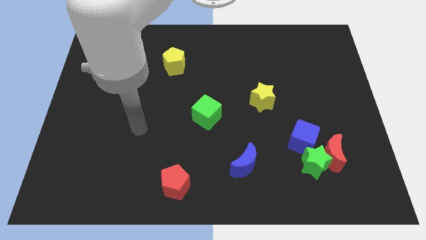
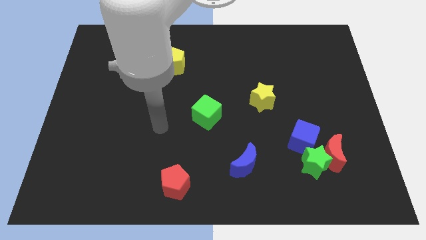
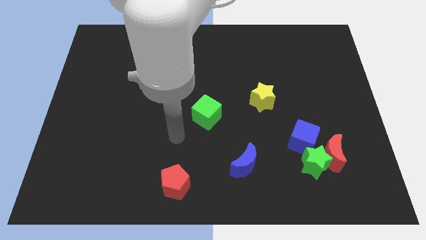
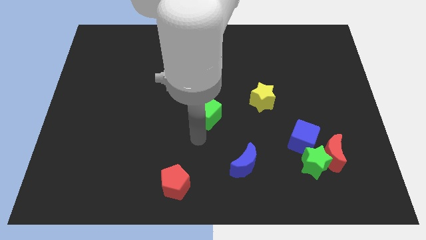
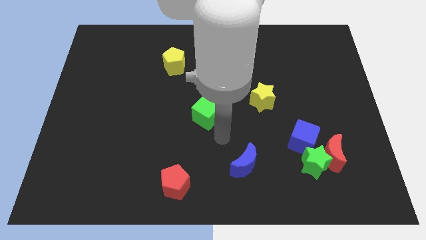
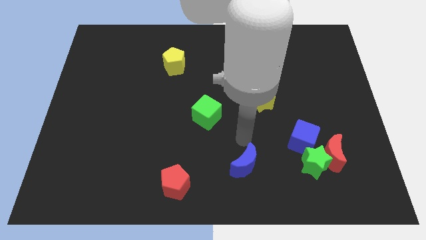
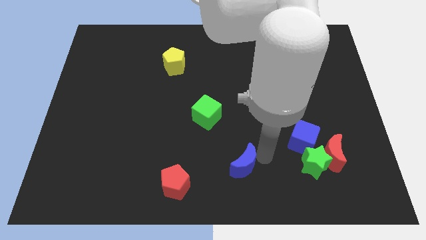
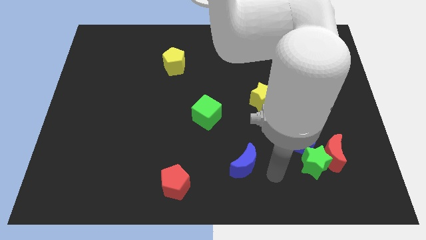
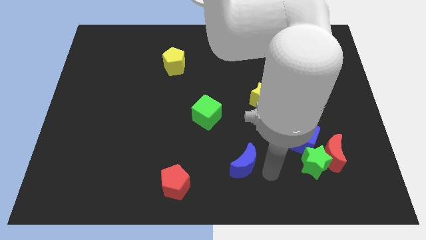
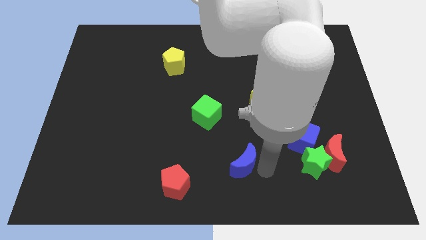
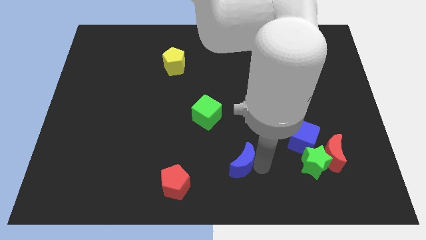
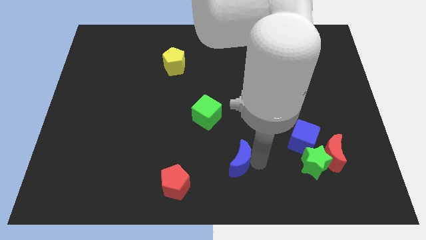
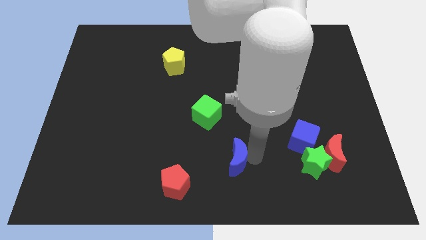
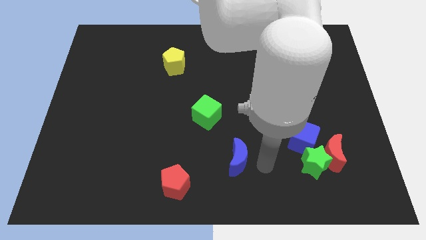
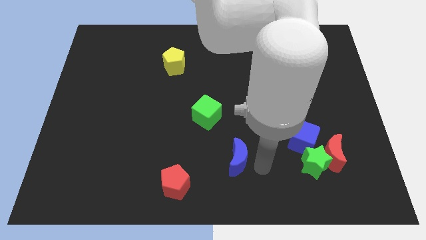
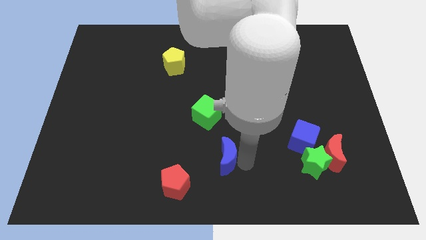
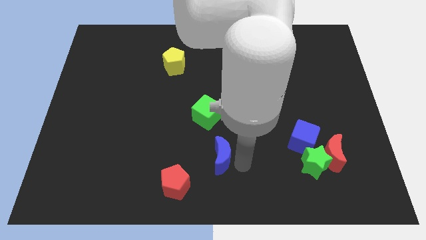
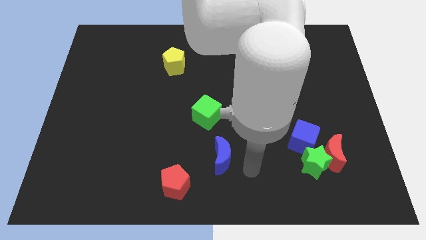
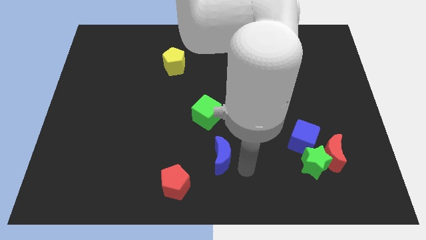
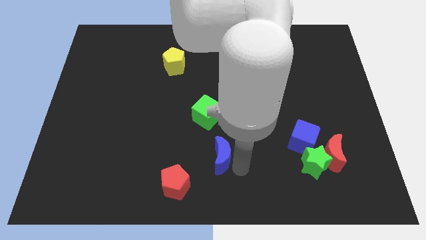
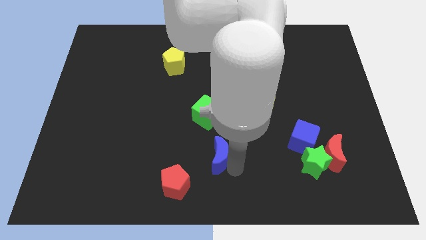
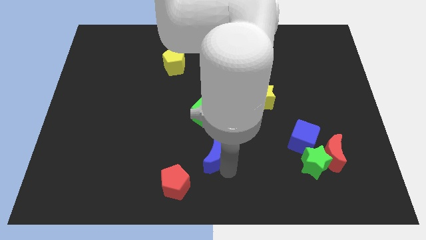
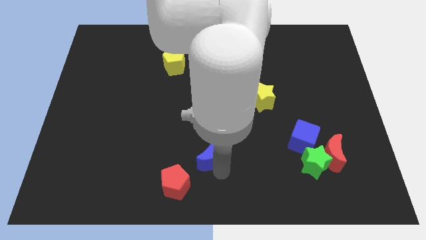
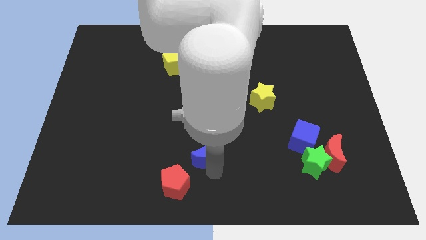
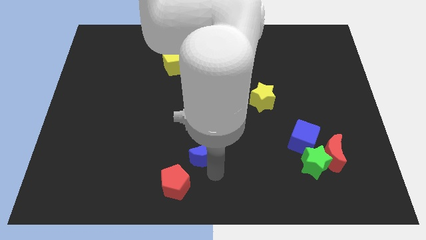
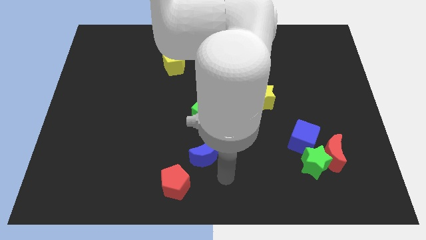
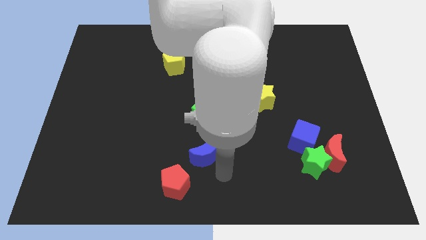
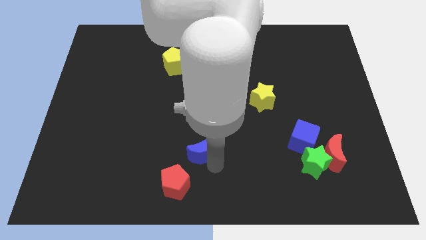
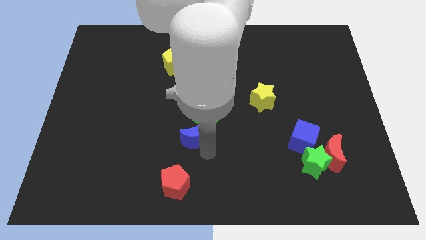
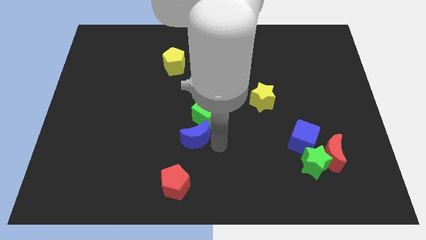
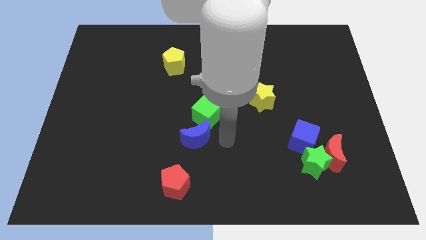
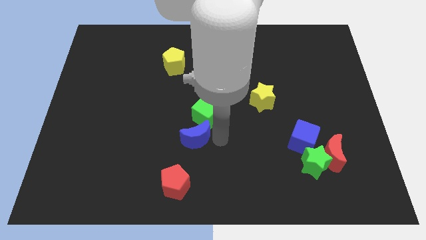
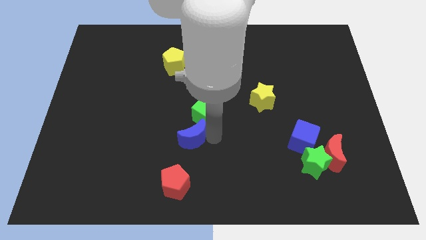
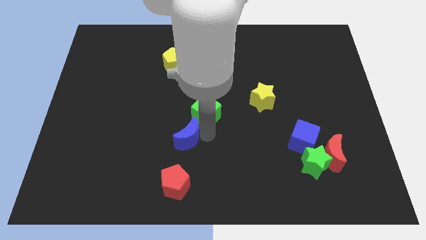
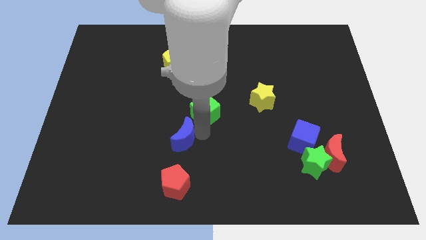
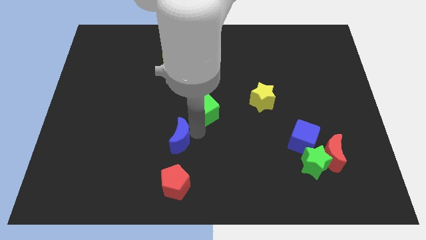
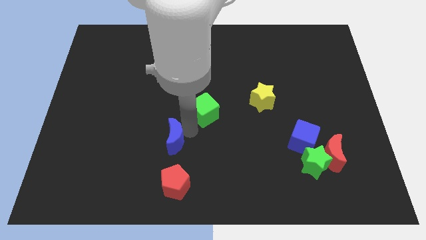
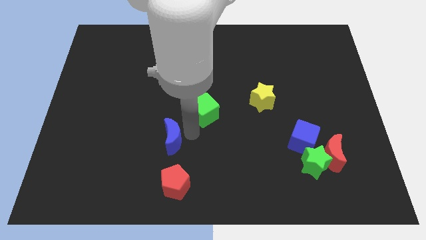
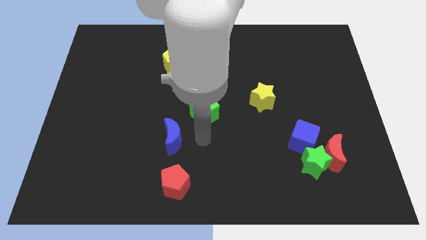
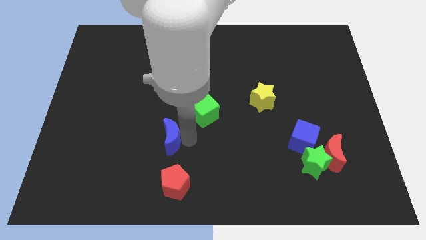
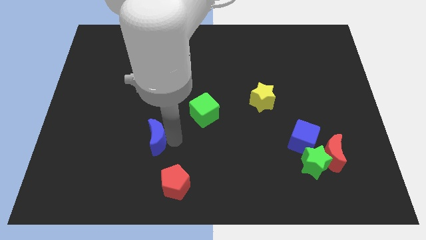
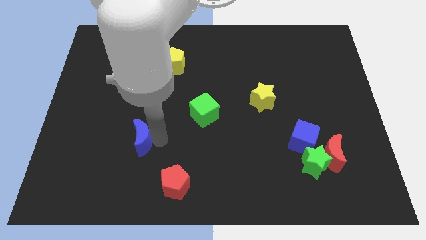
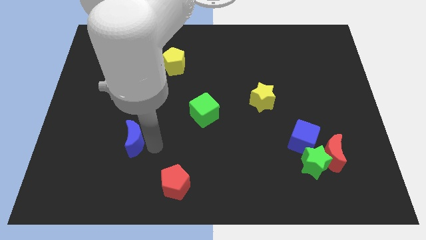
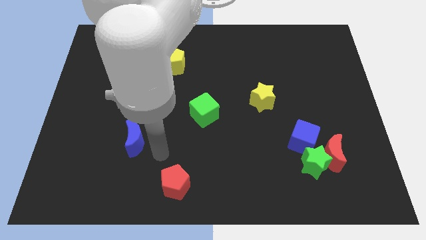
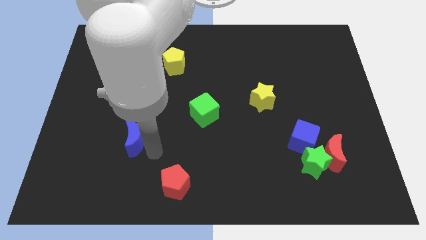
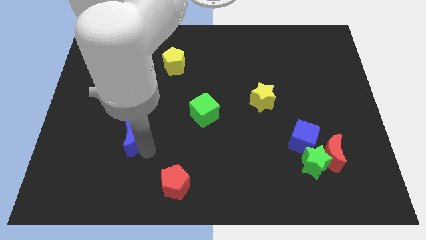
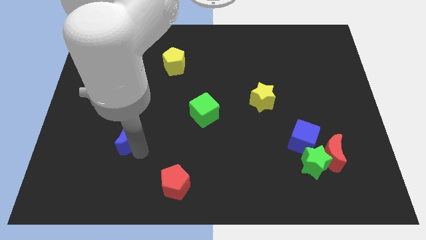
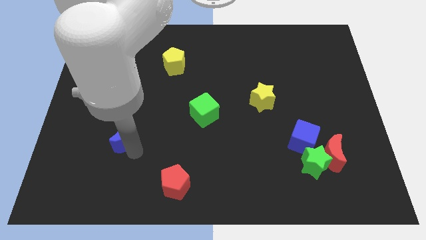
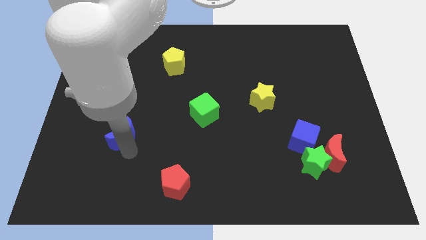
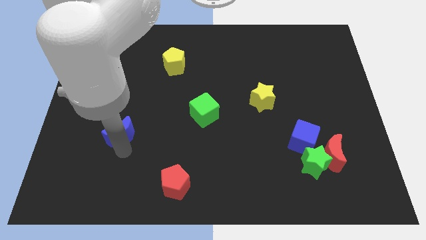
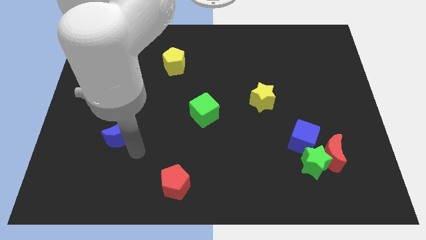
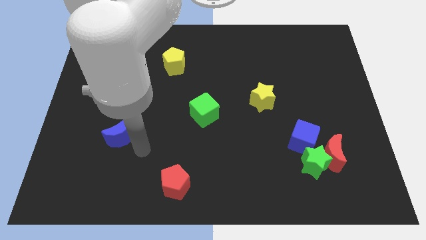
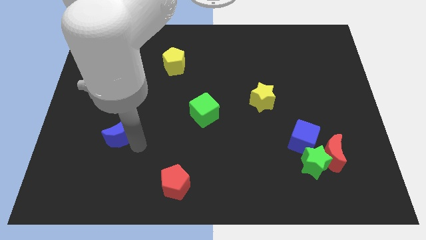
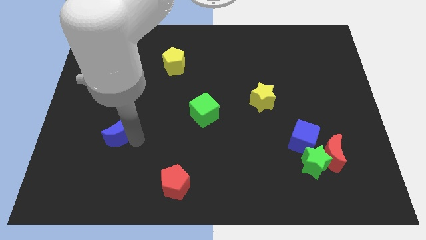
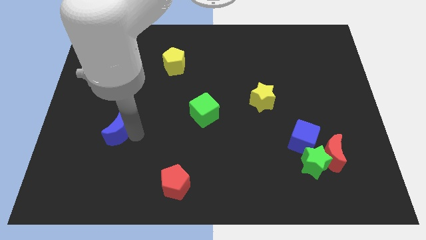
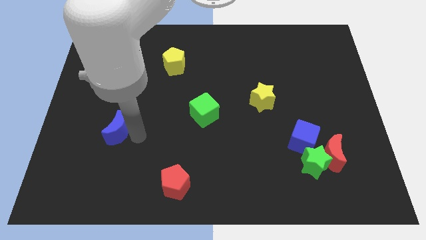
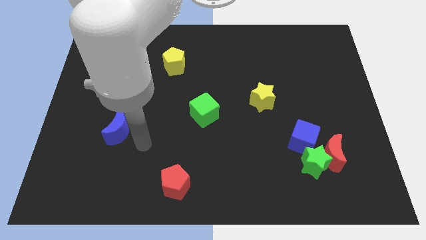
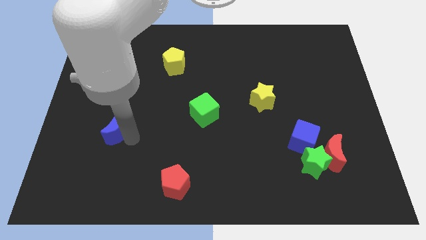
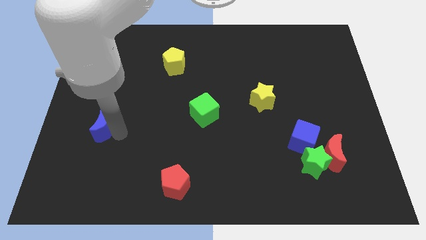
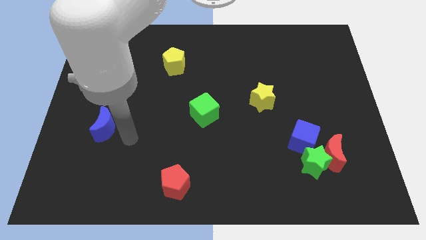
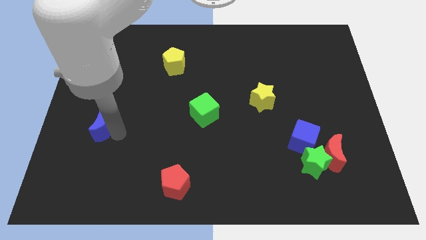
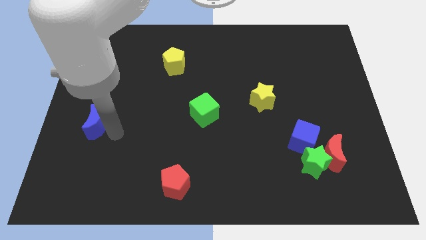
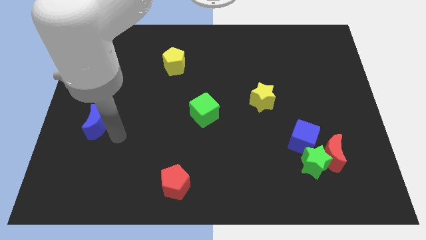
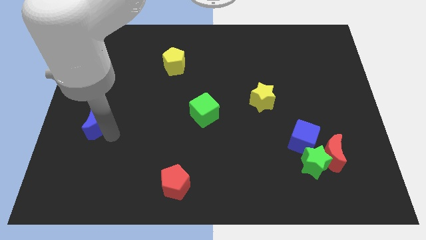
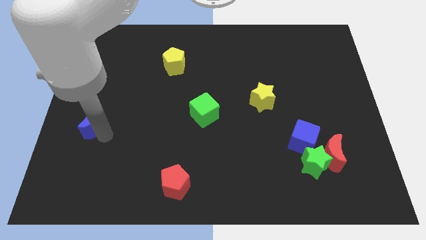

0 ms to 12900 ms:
push the blue moon to the left side of the board

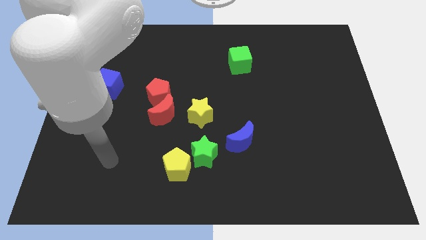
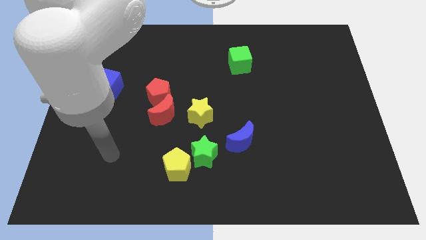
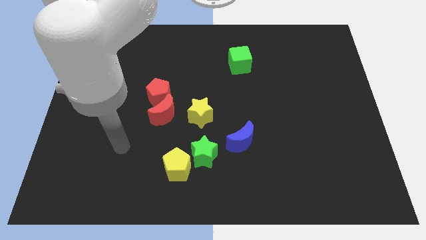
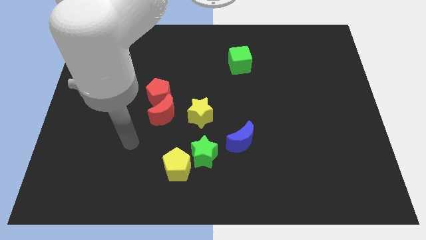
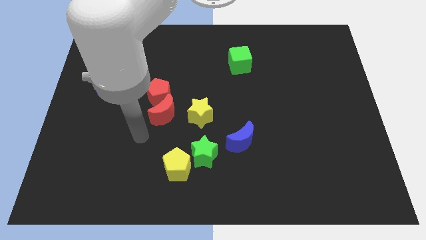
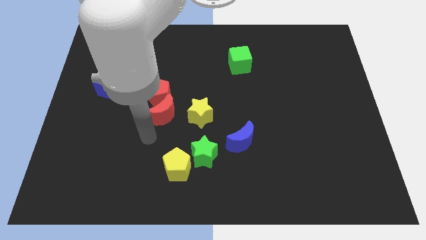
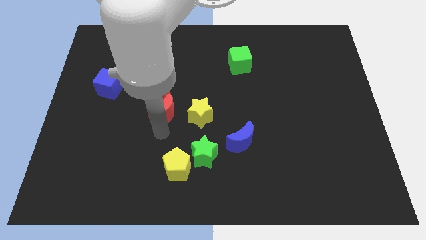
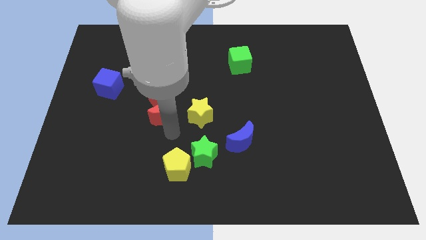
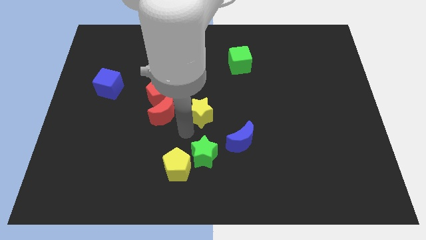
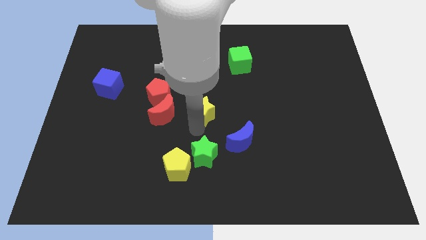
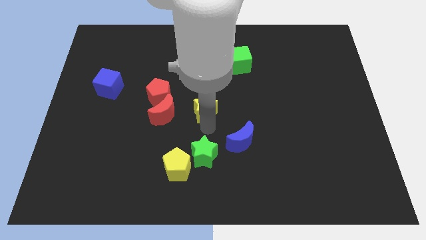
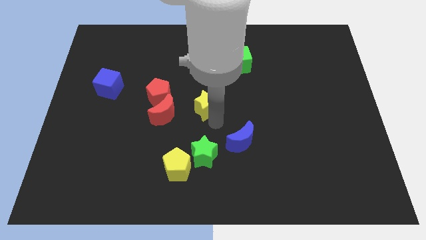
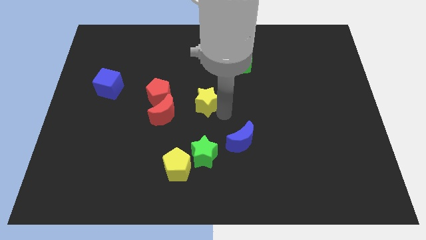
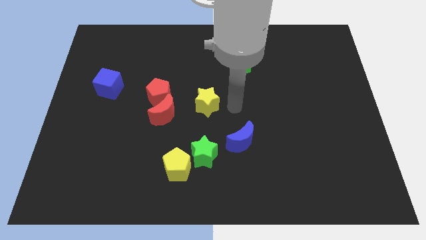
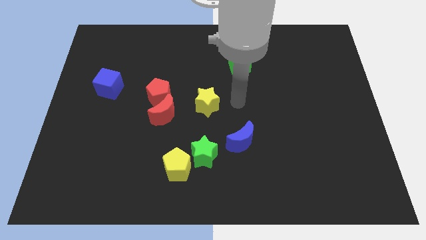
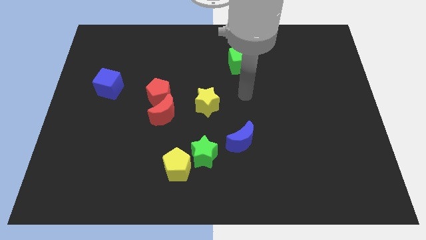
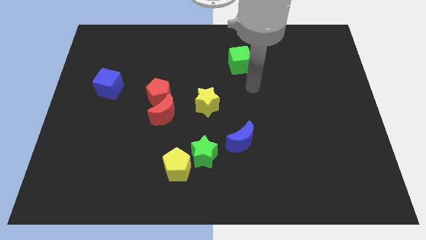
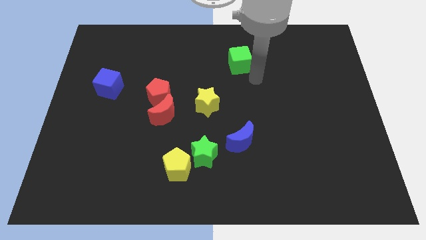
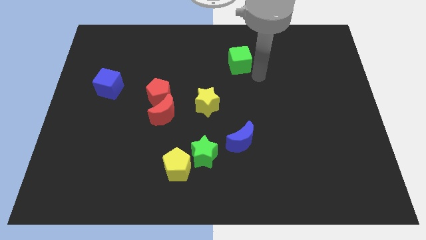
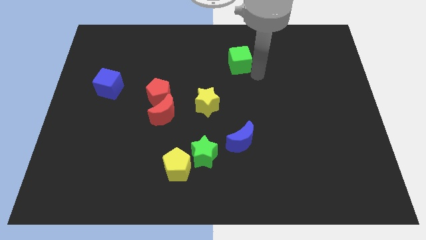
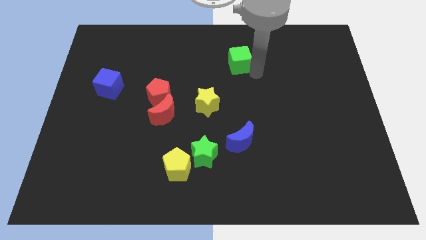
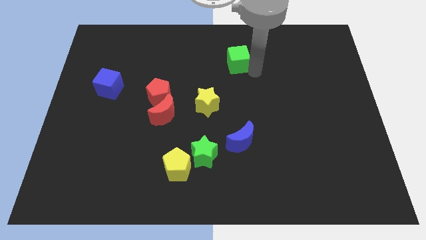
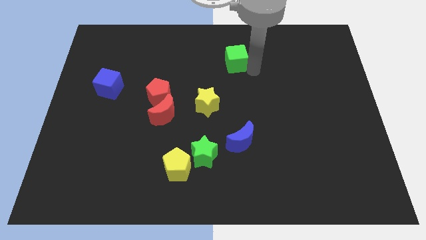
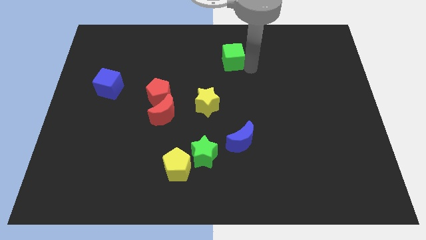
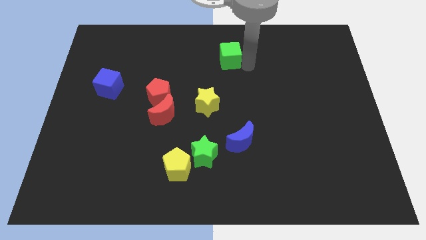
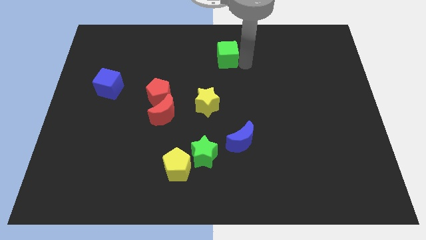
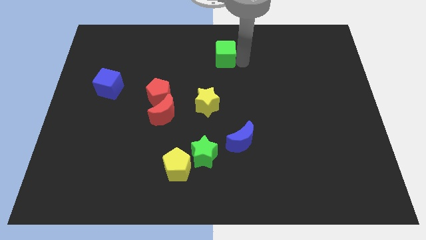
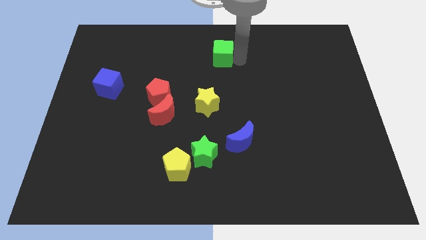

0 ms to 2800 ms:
push the green cube to the towards your base
